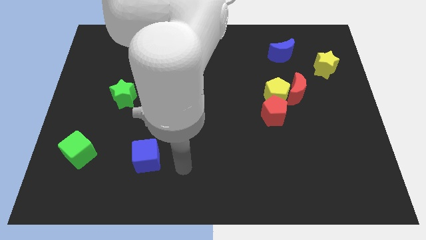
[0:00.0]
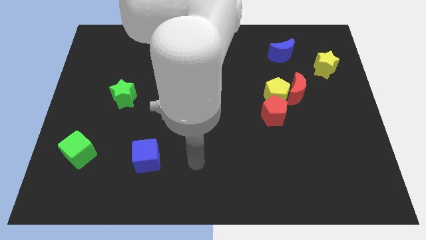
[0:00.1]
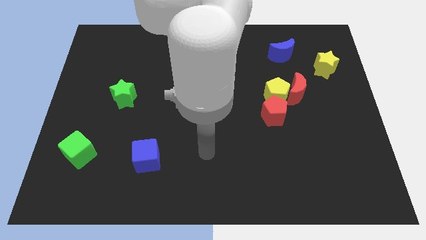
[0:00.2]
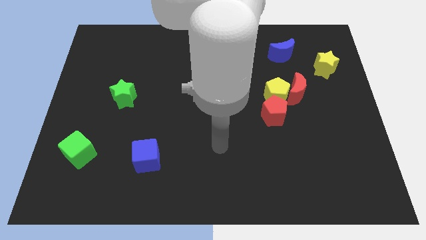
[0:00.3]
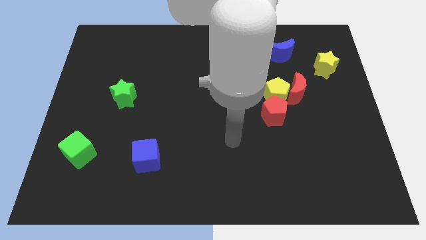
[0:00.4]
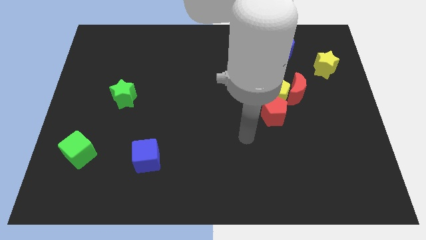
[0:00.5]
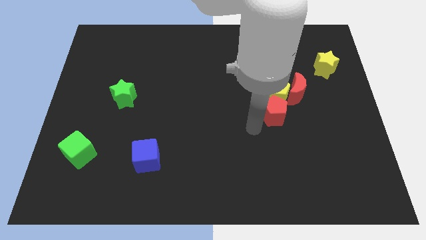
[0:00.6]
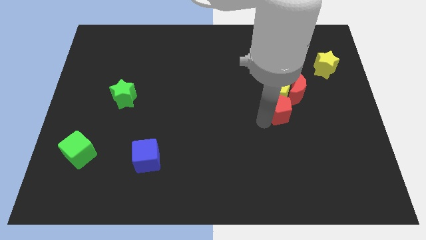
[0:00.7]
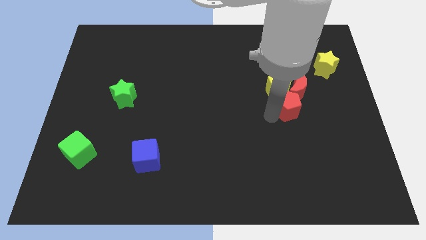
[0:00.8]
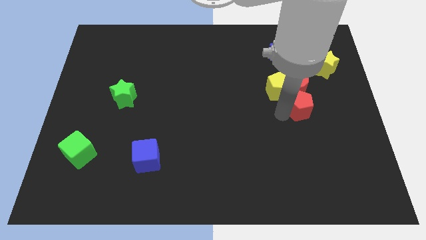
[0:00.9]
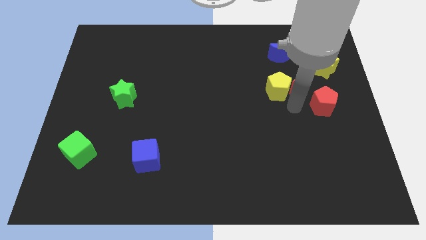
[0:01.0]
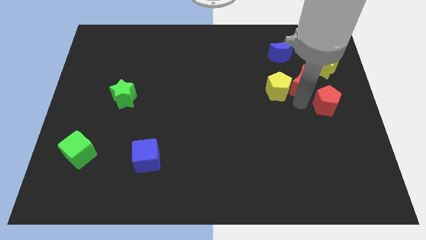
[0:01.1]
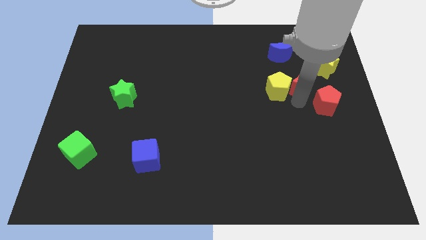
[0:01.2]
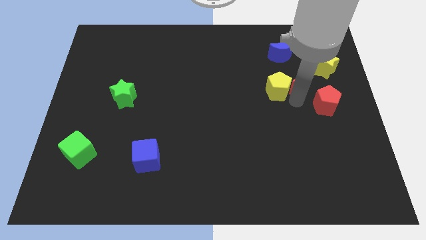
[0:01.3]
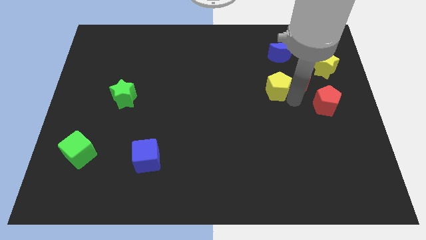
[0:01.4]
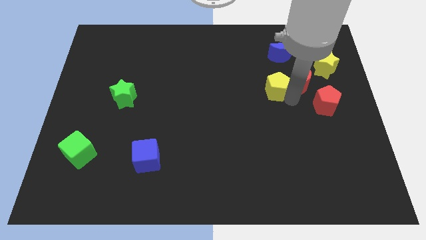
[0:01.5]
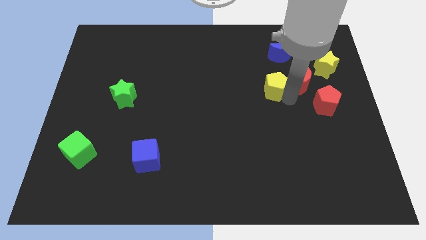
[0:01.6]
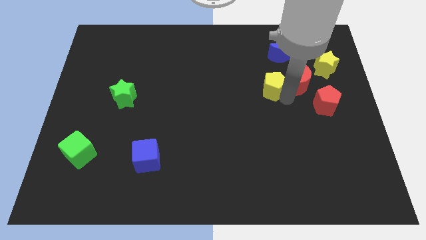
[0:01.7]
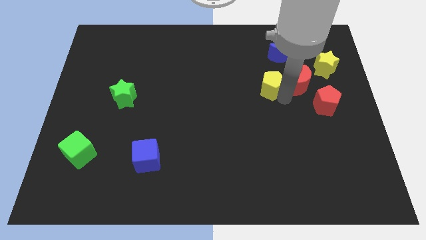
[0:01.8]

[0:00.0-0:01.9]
move the yellow pentagon away from the red moon and red pentagon

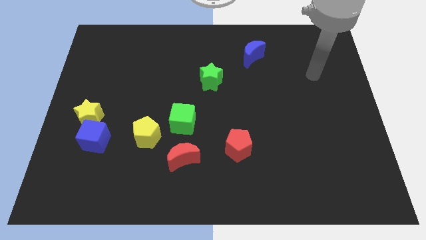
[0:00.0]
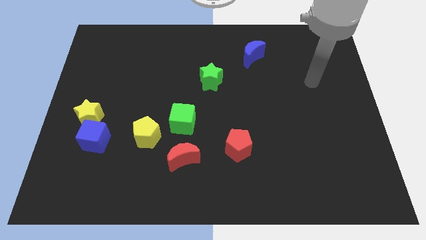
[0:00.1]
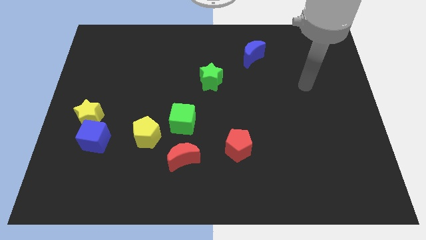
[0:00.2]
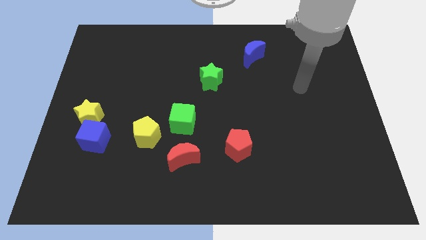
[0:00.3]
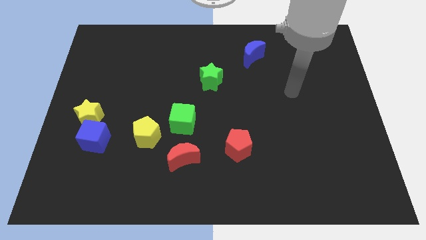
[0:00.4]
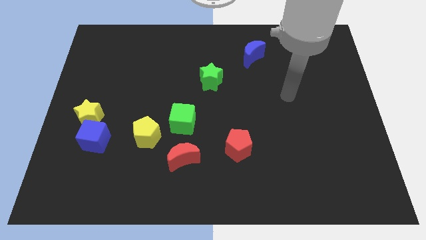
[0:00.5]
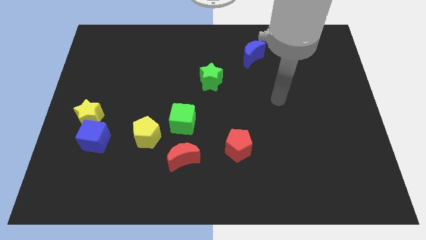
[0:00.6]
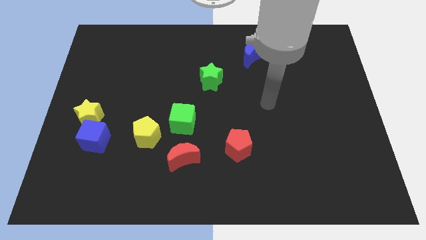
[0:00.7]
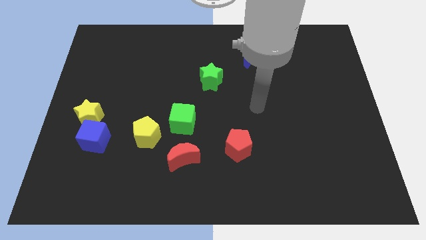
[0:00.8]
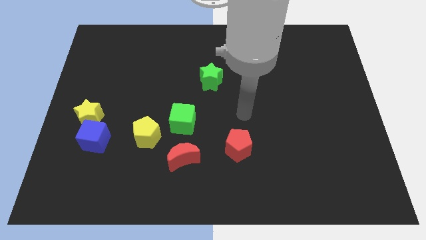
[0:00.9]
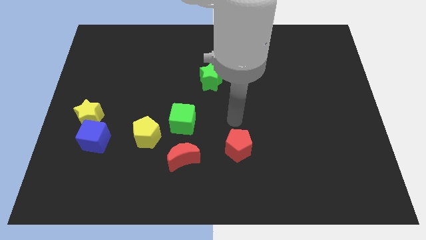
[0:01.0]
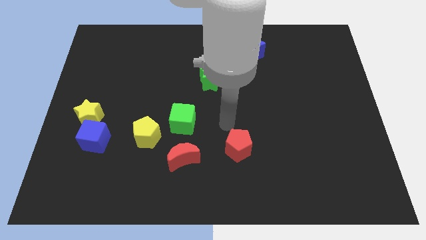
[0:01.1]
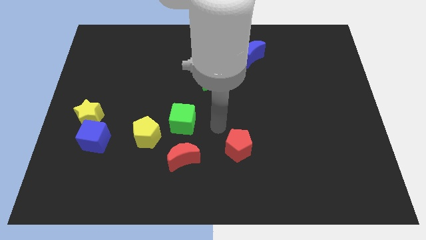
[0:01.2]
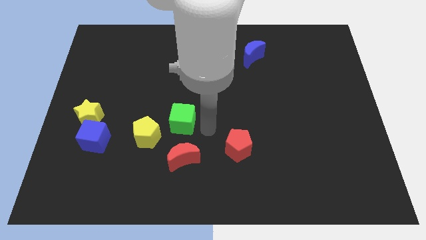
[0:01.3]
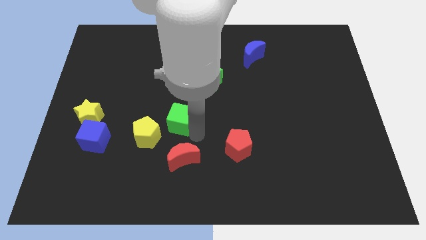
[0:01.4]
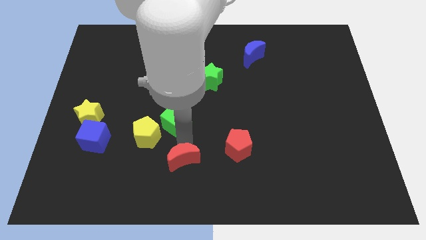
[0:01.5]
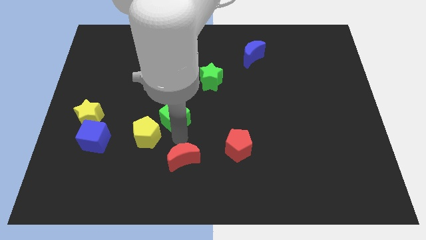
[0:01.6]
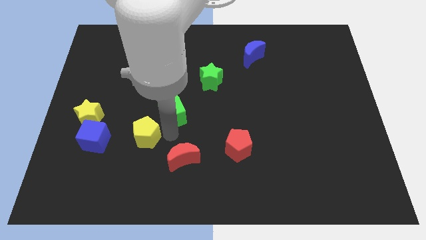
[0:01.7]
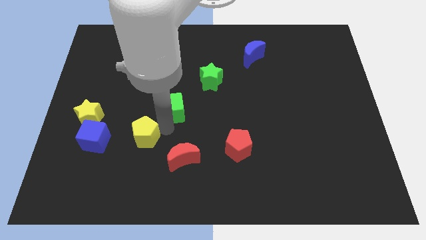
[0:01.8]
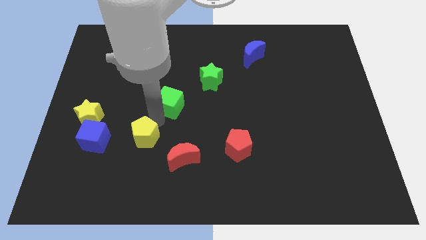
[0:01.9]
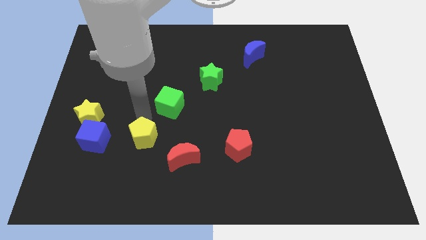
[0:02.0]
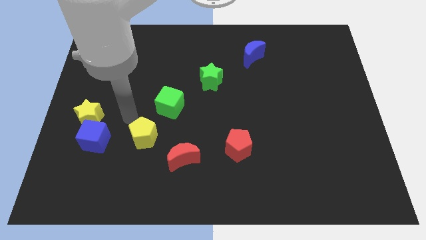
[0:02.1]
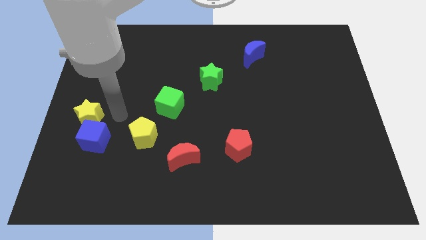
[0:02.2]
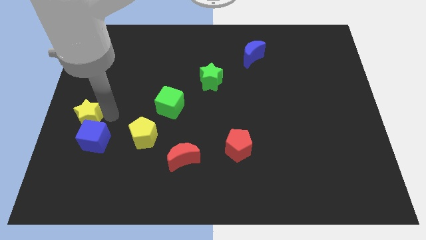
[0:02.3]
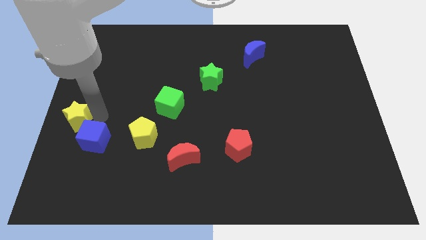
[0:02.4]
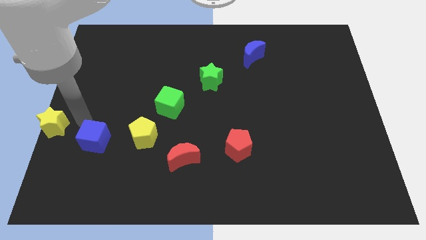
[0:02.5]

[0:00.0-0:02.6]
move the blue cube away from the yellow star

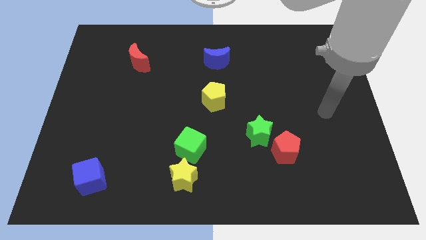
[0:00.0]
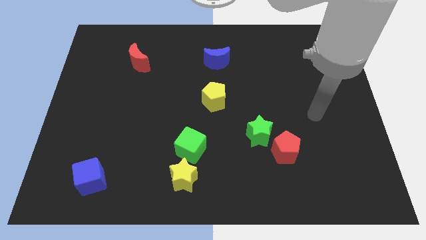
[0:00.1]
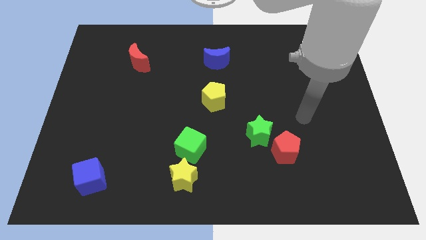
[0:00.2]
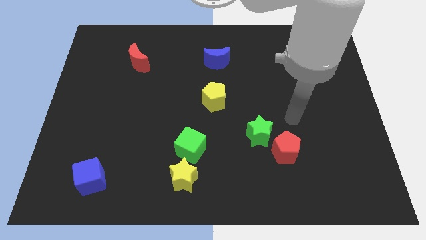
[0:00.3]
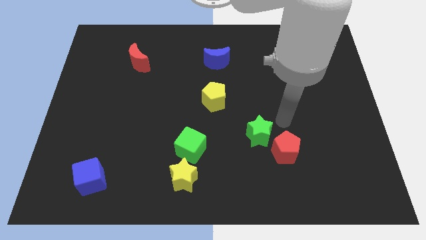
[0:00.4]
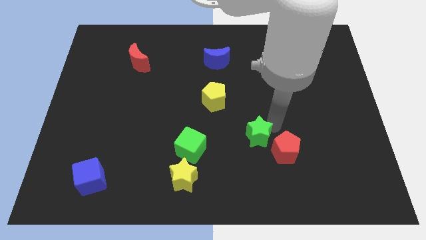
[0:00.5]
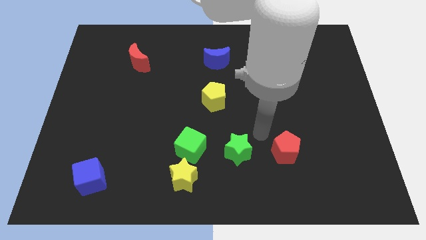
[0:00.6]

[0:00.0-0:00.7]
move the red pentagon away from the green star

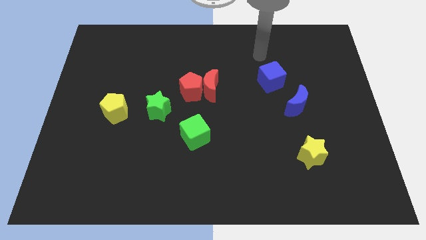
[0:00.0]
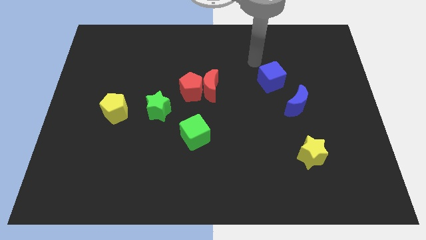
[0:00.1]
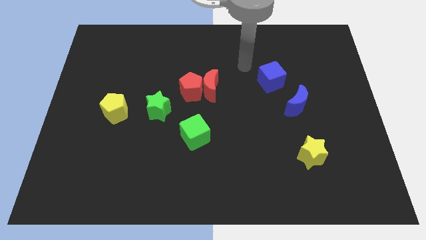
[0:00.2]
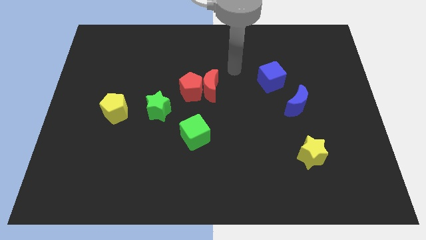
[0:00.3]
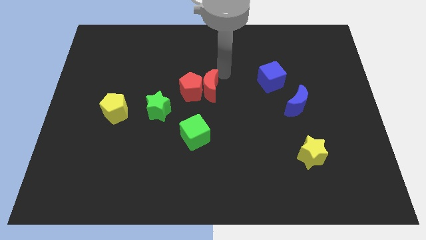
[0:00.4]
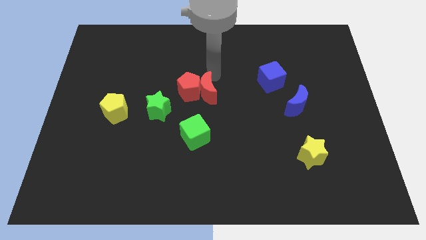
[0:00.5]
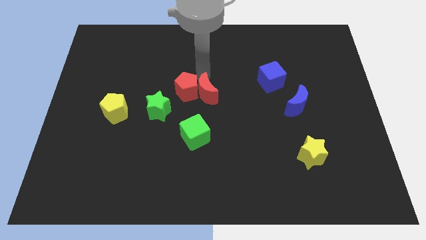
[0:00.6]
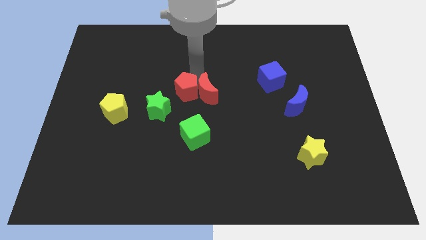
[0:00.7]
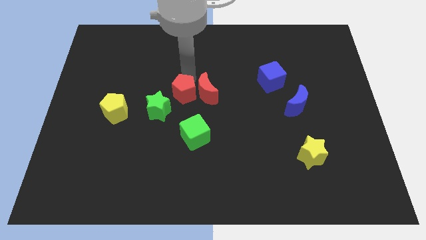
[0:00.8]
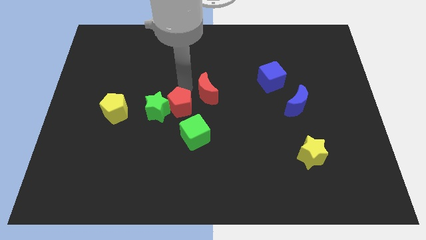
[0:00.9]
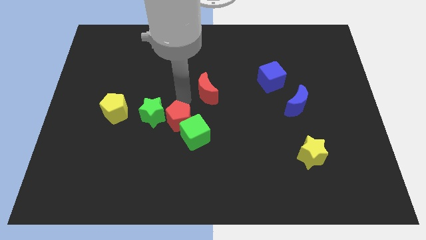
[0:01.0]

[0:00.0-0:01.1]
pull the red moon apart from the red pentagon

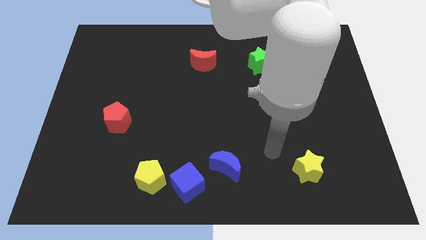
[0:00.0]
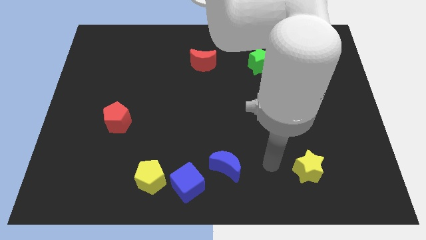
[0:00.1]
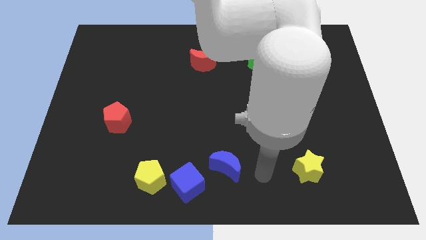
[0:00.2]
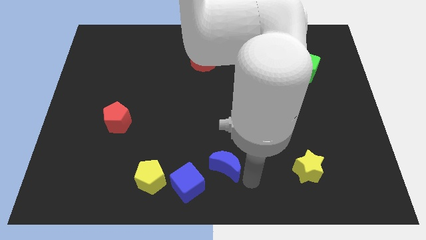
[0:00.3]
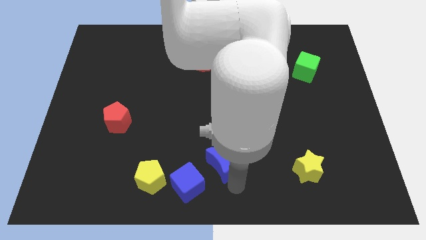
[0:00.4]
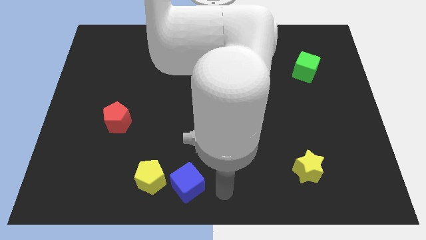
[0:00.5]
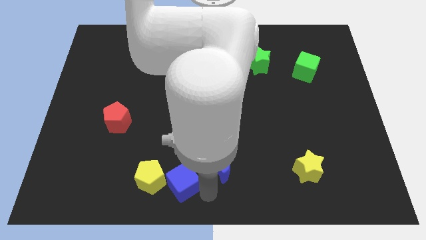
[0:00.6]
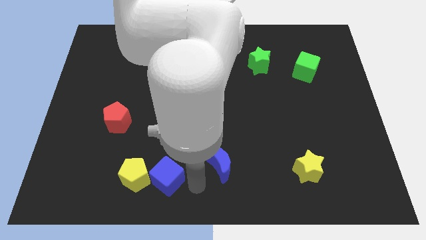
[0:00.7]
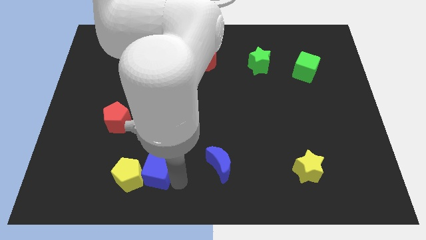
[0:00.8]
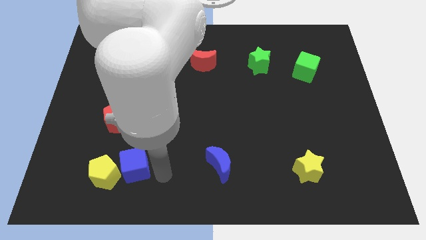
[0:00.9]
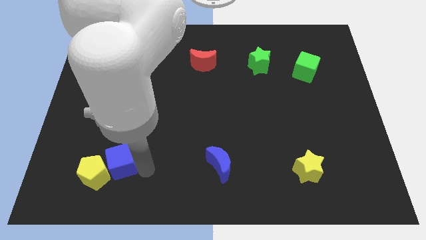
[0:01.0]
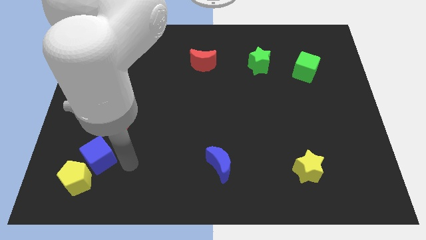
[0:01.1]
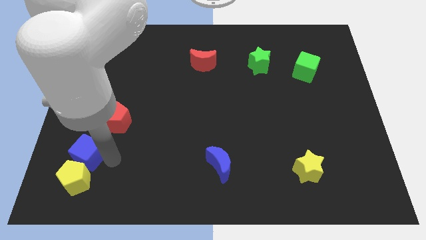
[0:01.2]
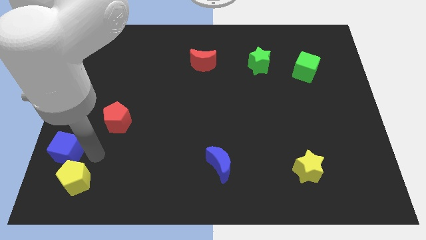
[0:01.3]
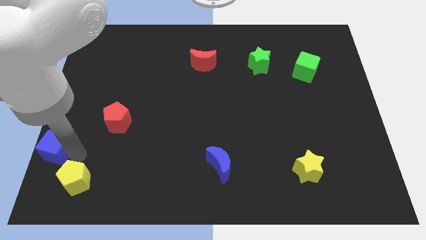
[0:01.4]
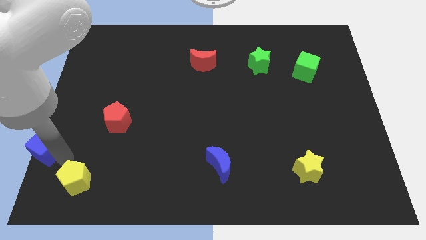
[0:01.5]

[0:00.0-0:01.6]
move the yellow pentagon away from the blue cube

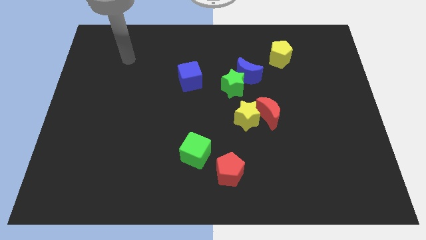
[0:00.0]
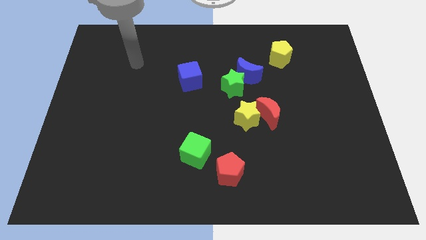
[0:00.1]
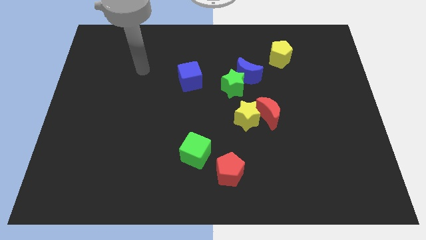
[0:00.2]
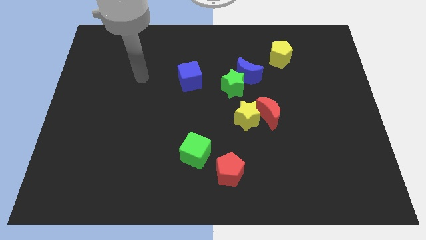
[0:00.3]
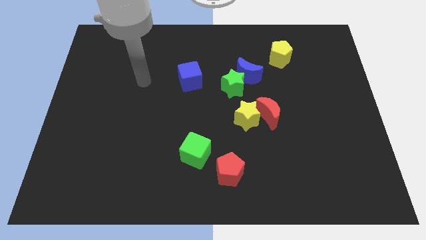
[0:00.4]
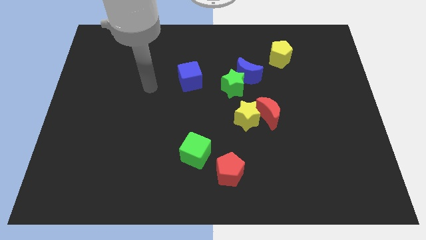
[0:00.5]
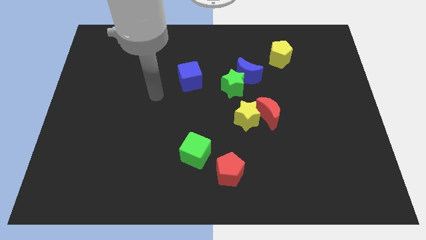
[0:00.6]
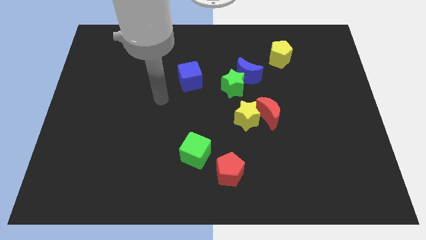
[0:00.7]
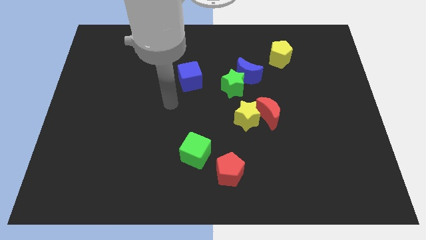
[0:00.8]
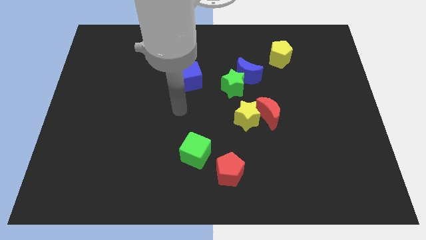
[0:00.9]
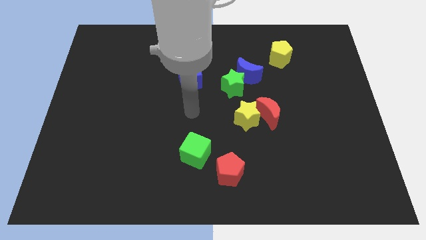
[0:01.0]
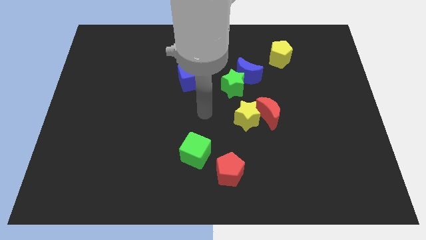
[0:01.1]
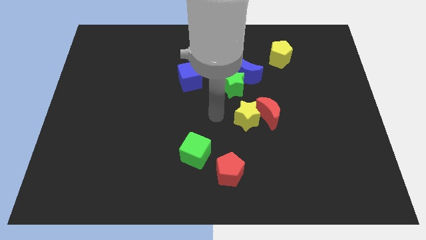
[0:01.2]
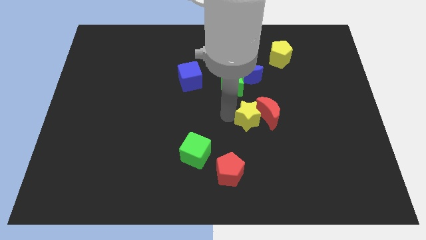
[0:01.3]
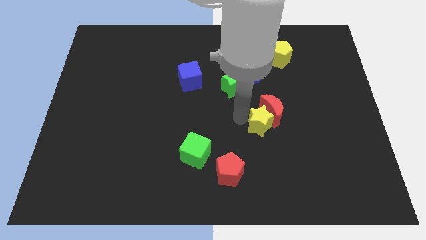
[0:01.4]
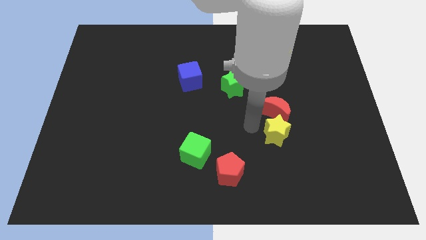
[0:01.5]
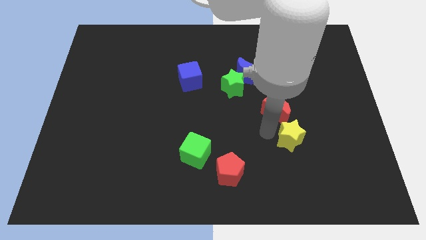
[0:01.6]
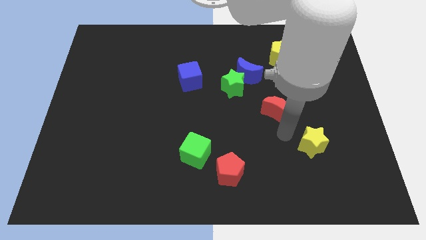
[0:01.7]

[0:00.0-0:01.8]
separate the red moon from the yellow star
